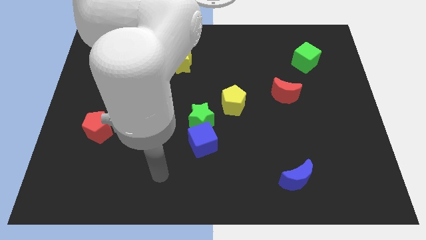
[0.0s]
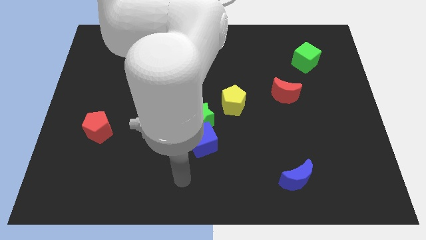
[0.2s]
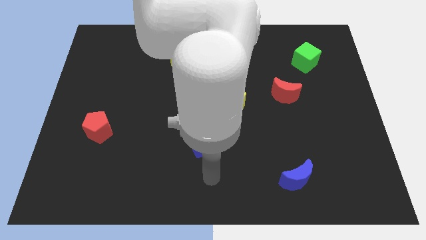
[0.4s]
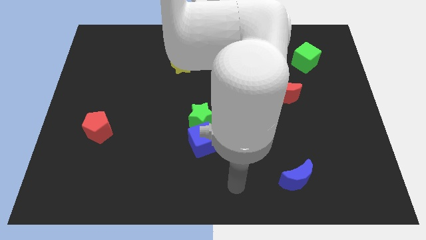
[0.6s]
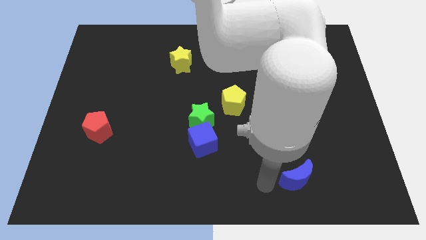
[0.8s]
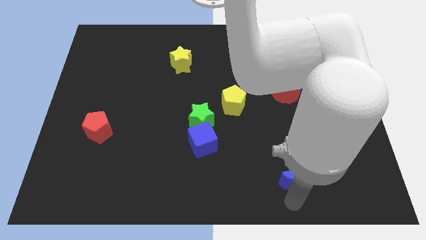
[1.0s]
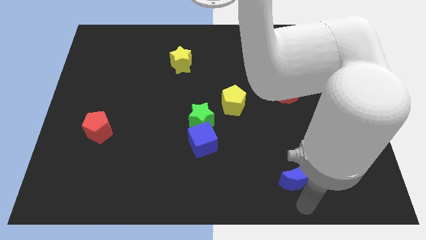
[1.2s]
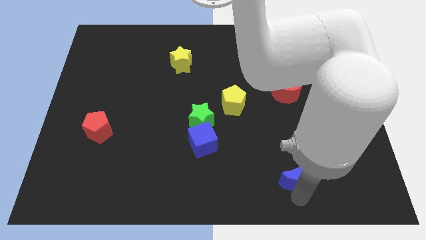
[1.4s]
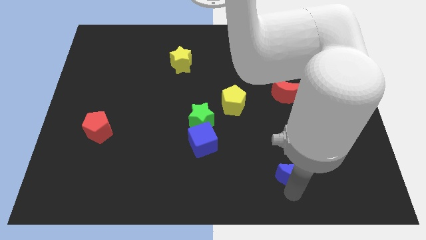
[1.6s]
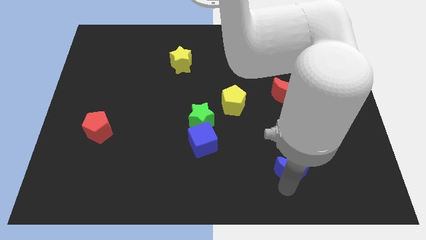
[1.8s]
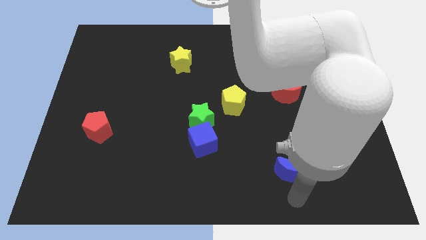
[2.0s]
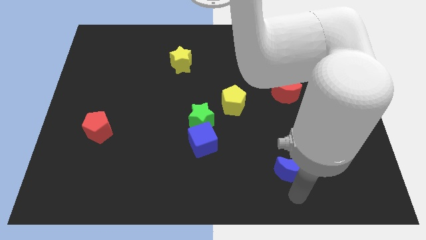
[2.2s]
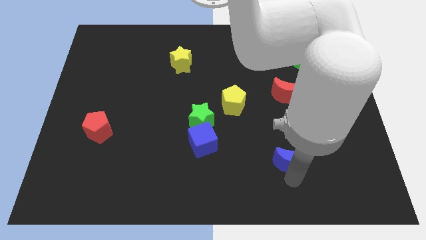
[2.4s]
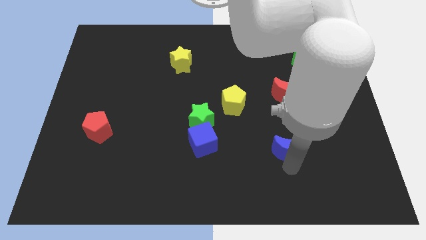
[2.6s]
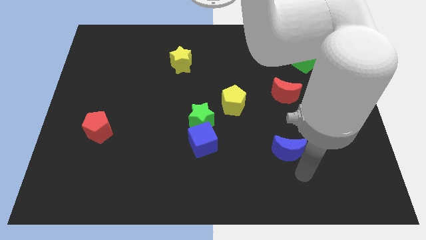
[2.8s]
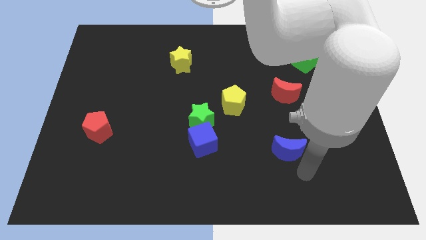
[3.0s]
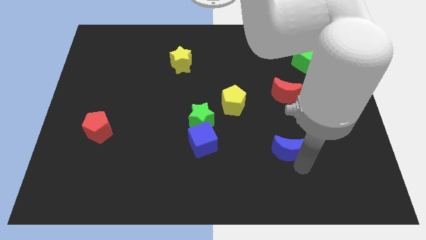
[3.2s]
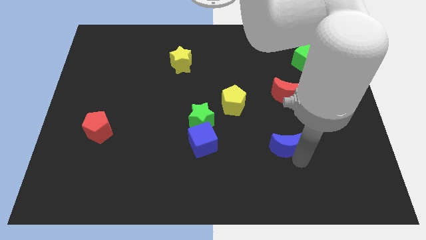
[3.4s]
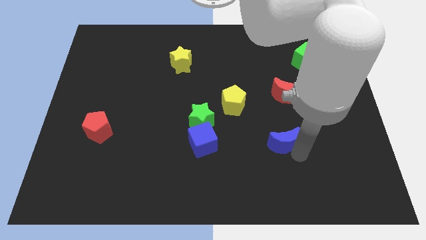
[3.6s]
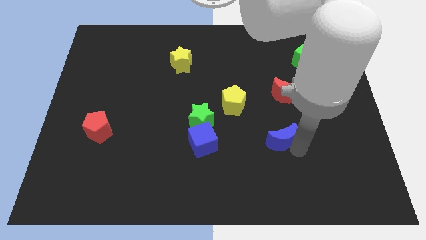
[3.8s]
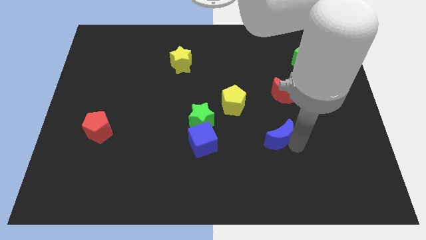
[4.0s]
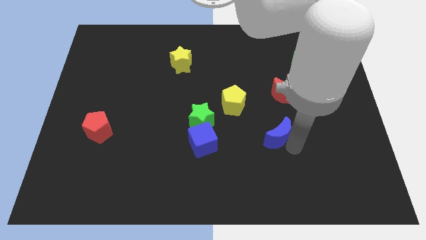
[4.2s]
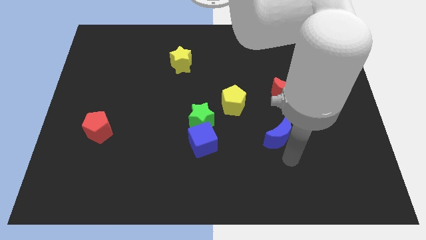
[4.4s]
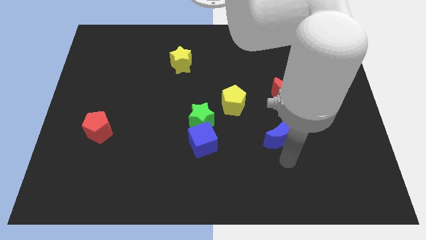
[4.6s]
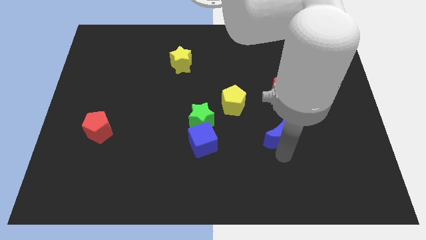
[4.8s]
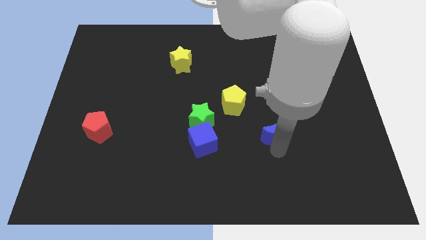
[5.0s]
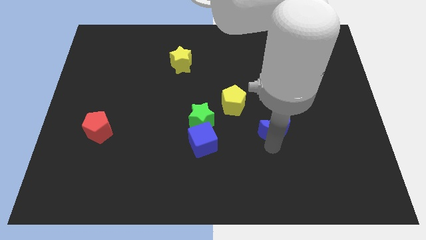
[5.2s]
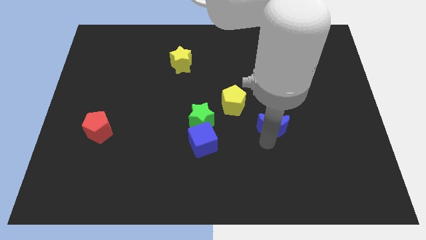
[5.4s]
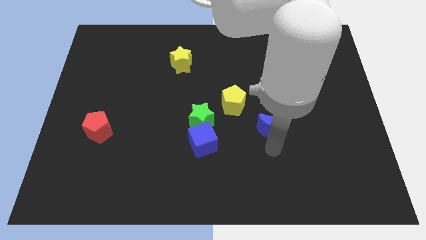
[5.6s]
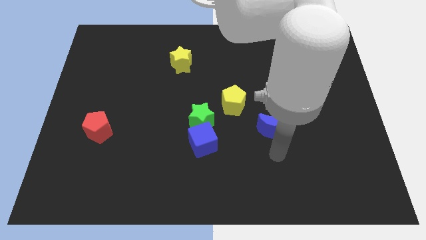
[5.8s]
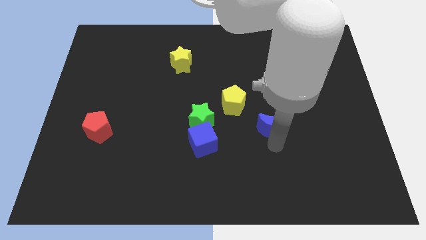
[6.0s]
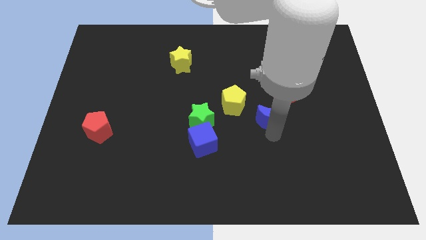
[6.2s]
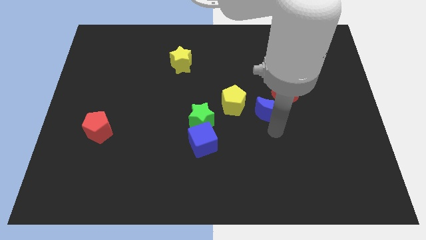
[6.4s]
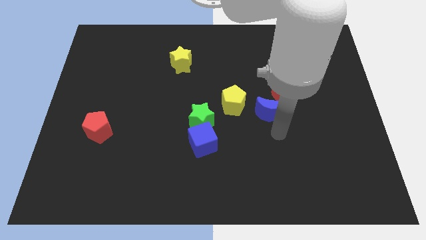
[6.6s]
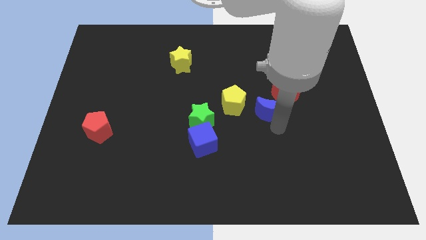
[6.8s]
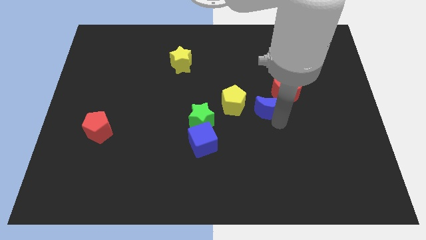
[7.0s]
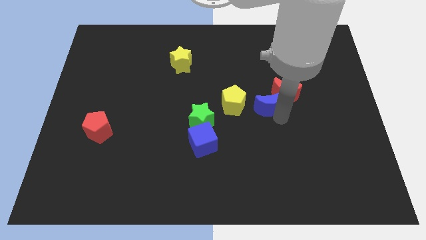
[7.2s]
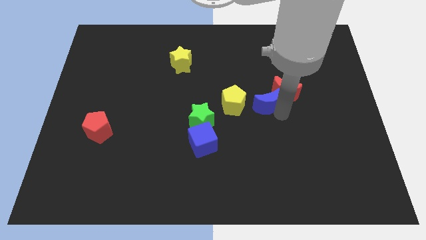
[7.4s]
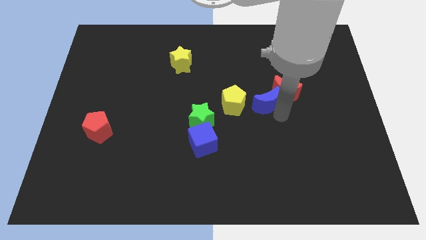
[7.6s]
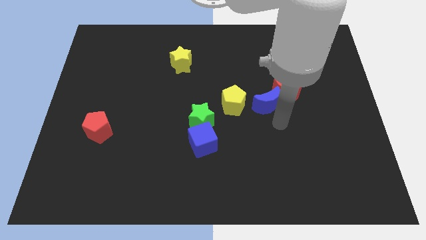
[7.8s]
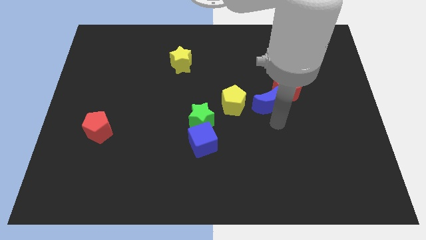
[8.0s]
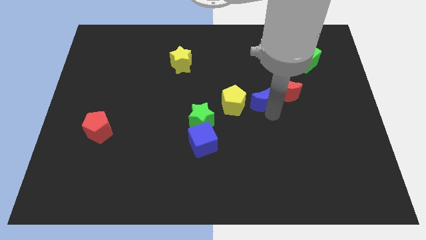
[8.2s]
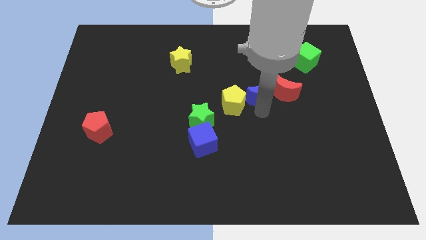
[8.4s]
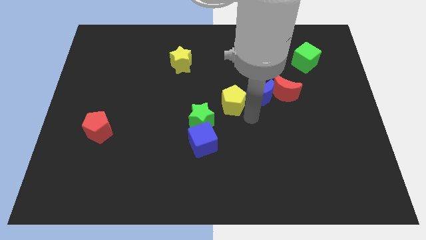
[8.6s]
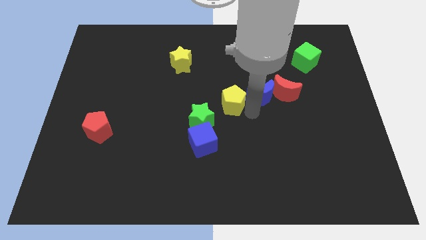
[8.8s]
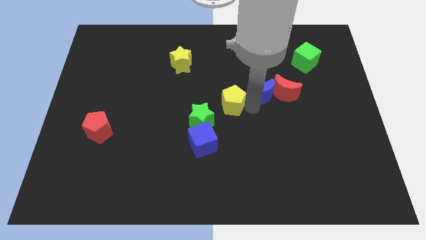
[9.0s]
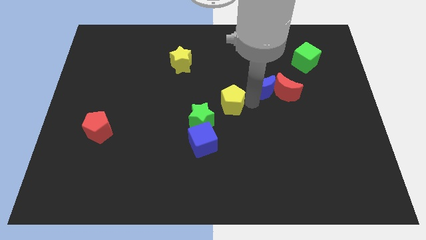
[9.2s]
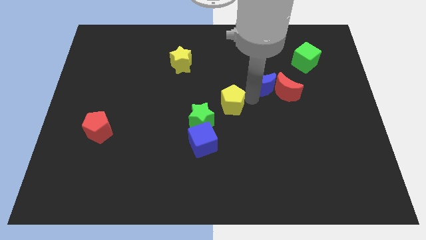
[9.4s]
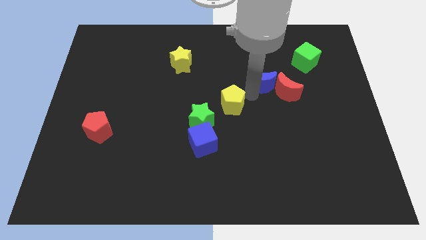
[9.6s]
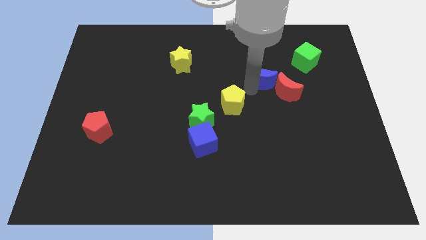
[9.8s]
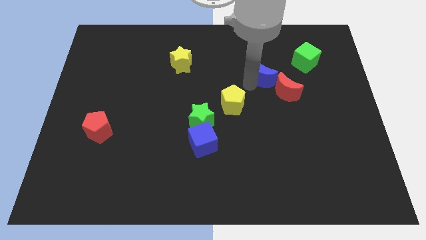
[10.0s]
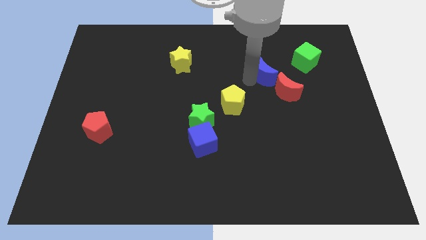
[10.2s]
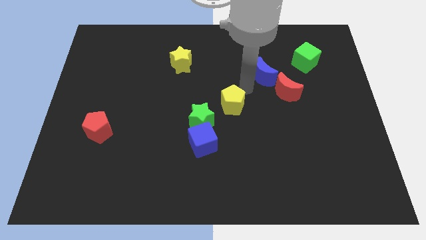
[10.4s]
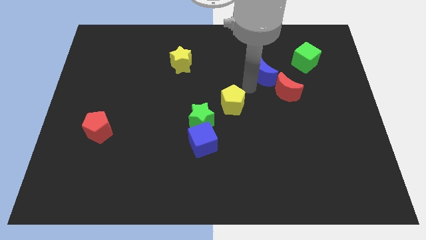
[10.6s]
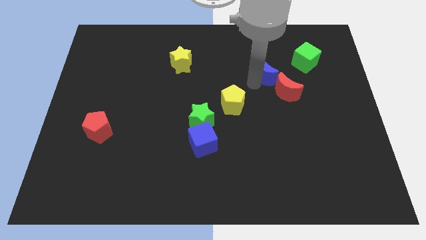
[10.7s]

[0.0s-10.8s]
push the blue moon to the top of the red moon

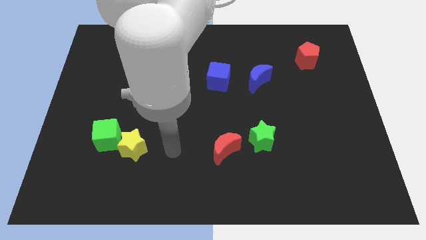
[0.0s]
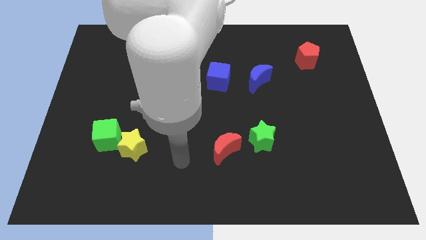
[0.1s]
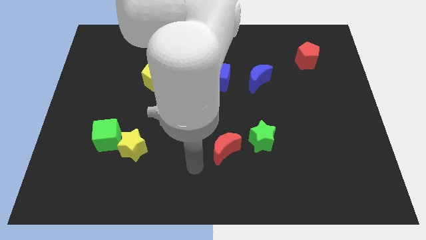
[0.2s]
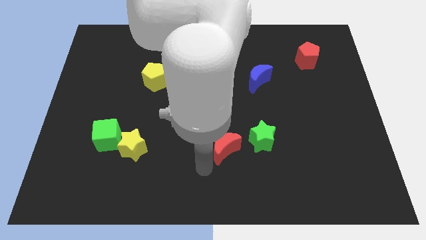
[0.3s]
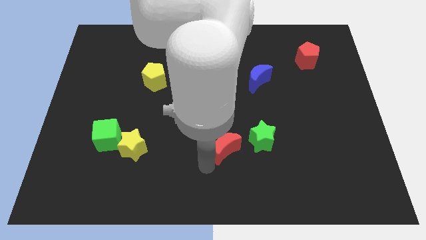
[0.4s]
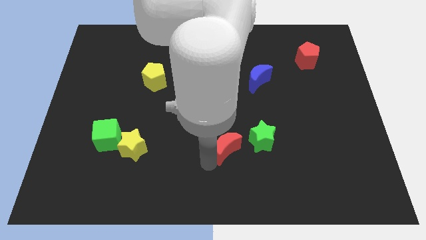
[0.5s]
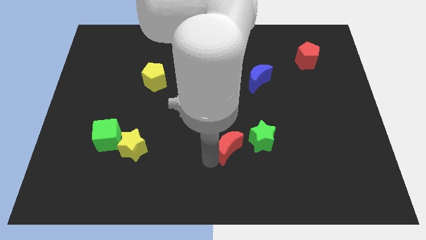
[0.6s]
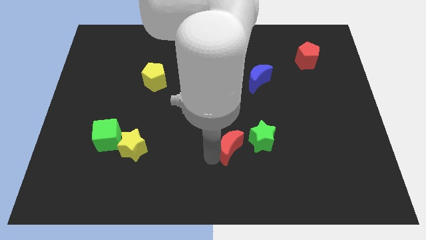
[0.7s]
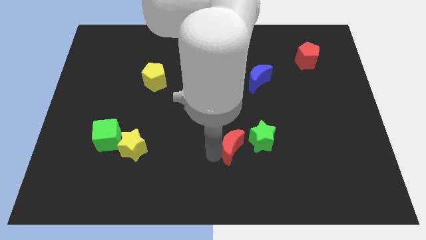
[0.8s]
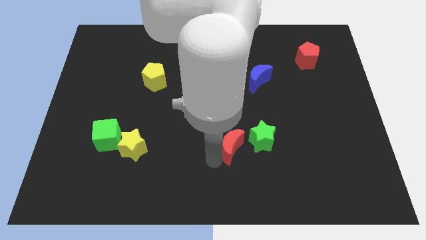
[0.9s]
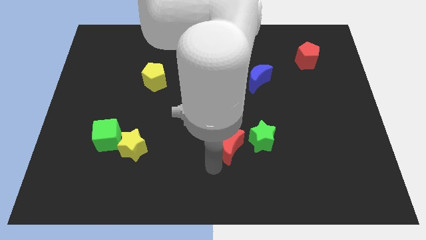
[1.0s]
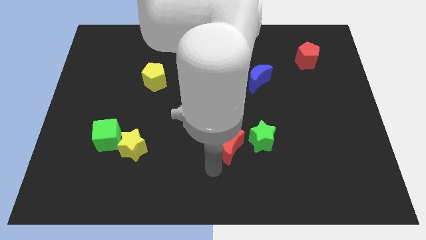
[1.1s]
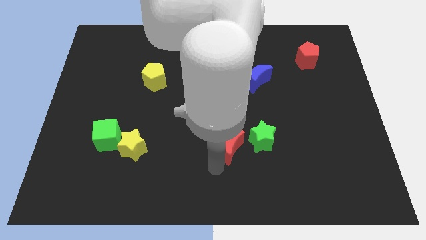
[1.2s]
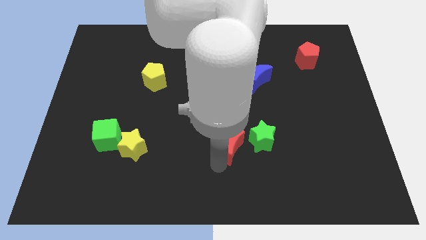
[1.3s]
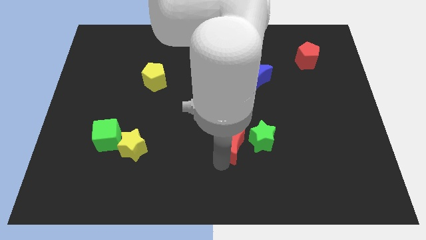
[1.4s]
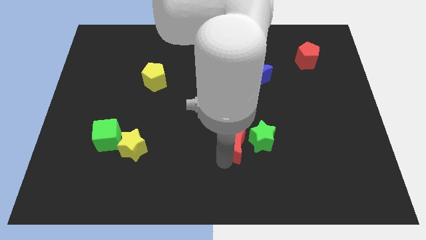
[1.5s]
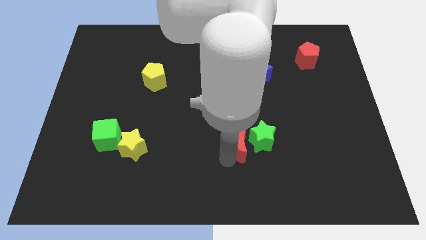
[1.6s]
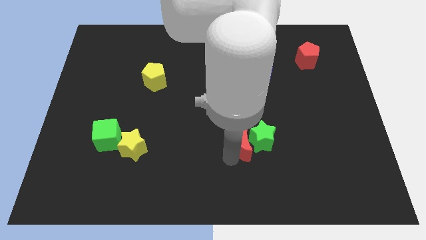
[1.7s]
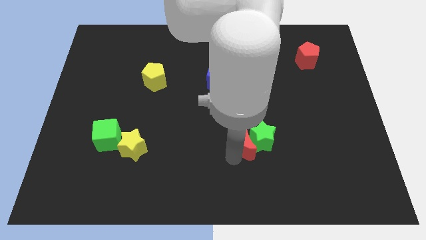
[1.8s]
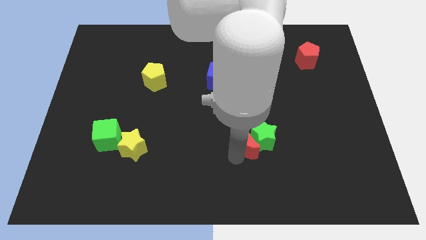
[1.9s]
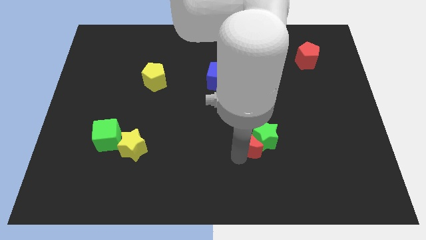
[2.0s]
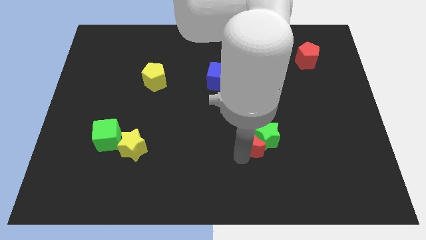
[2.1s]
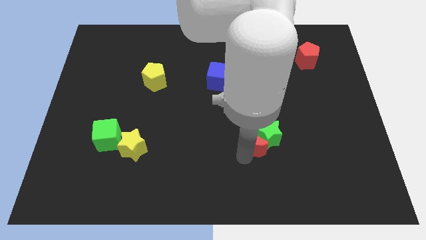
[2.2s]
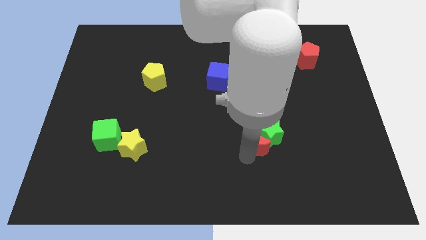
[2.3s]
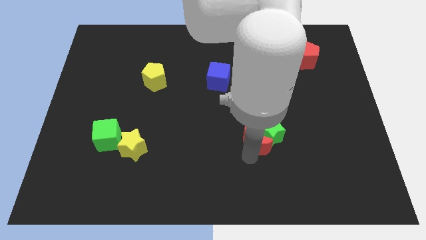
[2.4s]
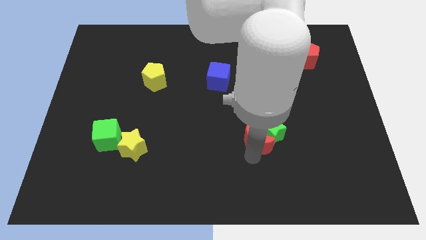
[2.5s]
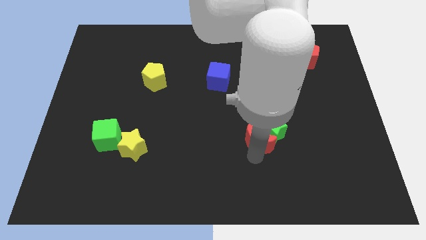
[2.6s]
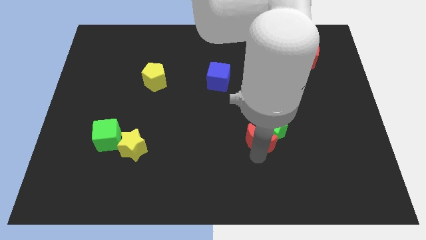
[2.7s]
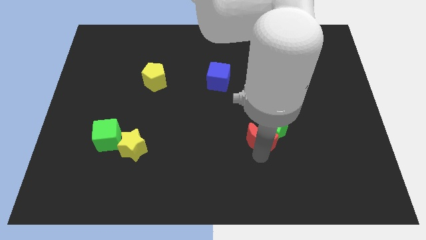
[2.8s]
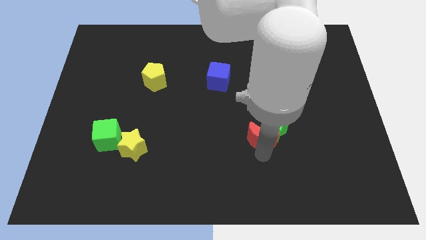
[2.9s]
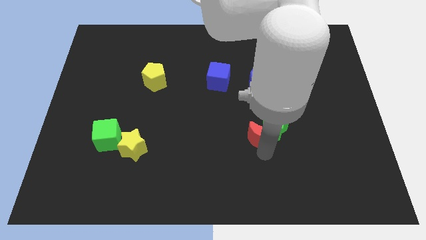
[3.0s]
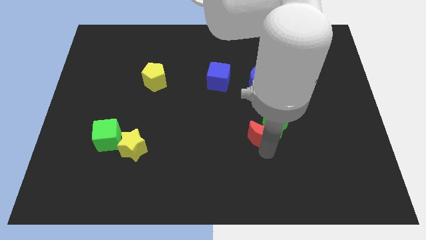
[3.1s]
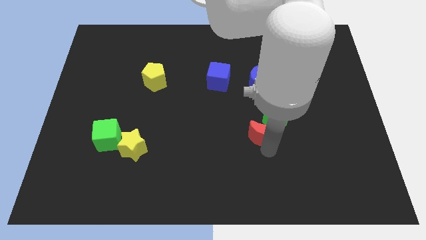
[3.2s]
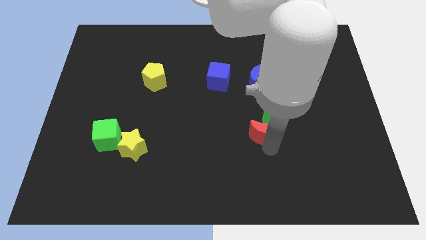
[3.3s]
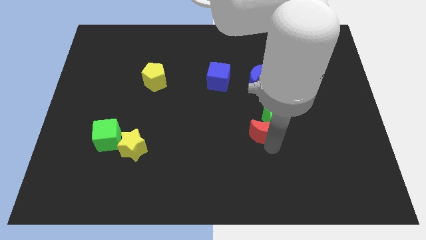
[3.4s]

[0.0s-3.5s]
move the red moon below the blue moon
